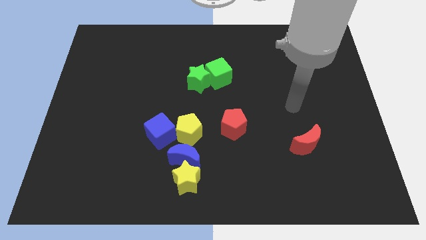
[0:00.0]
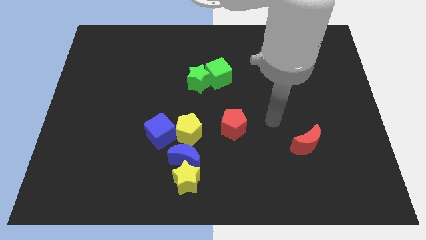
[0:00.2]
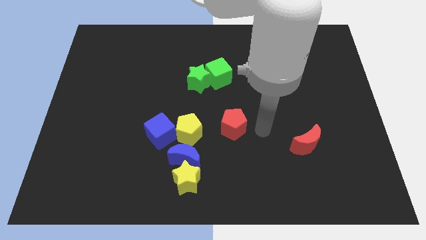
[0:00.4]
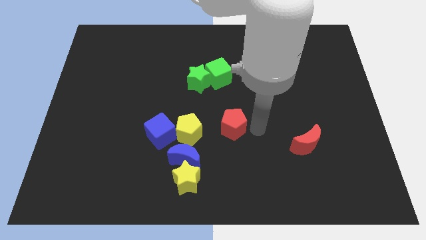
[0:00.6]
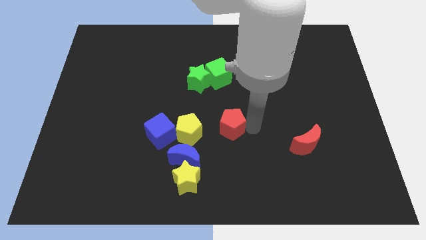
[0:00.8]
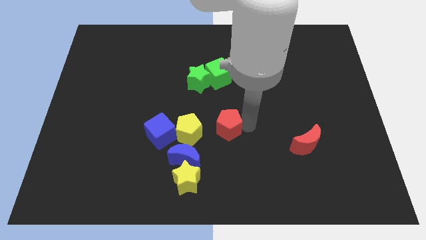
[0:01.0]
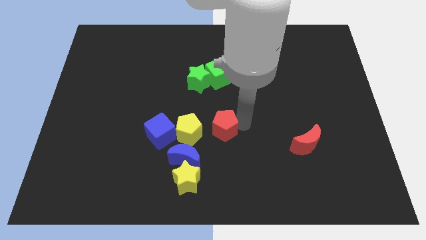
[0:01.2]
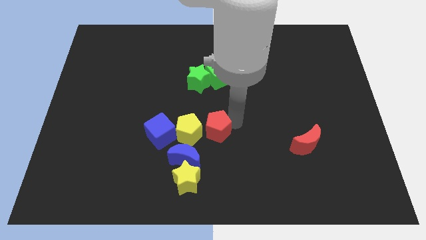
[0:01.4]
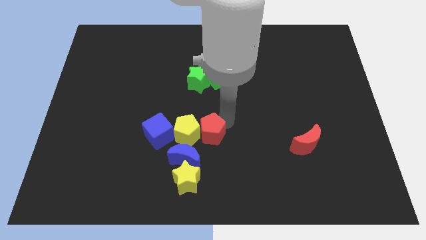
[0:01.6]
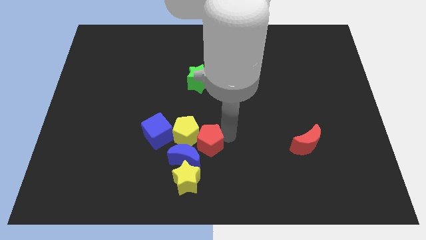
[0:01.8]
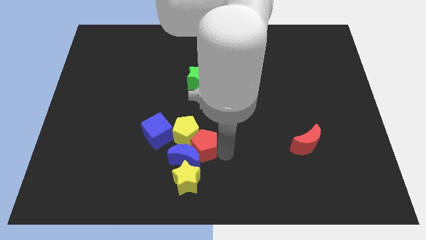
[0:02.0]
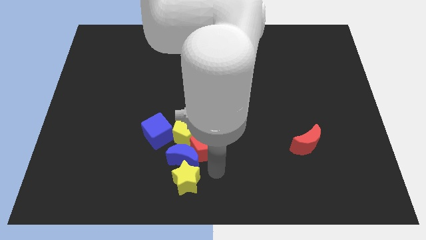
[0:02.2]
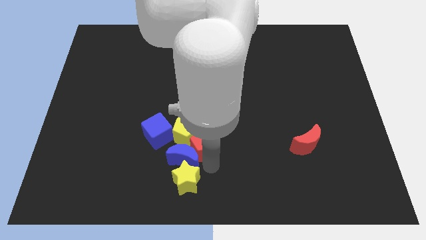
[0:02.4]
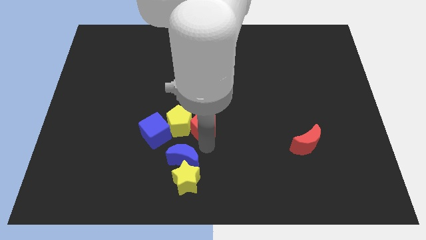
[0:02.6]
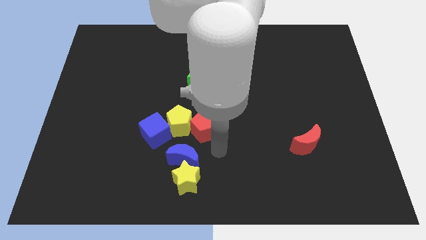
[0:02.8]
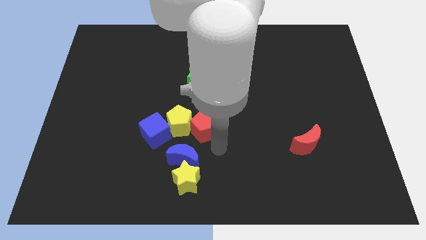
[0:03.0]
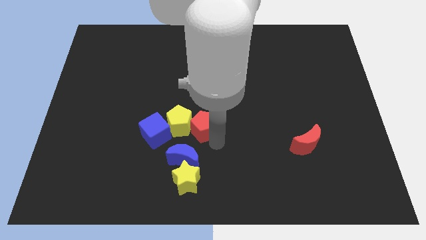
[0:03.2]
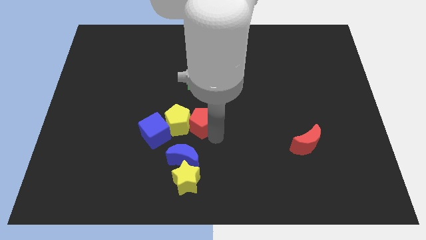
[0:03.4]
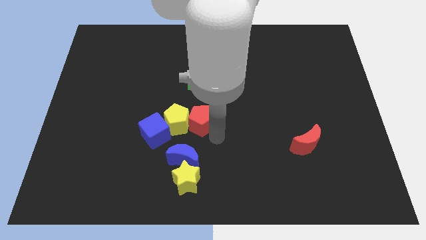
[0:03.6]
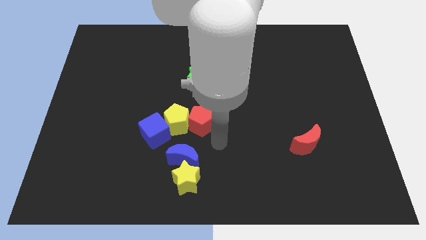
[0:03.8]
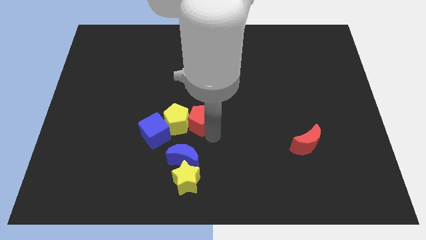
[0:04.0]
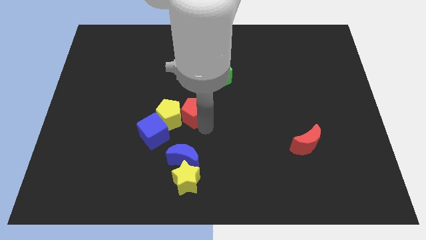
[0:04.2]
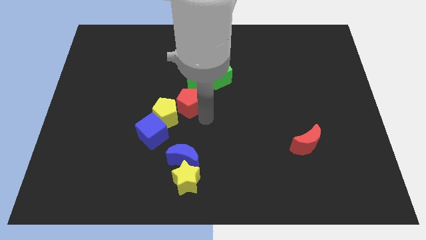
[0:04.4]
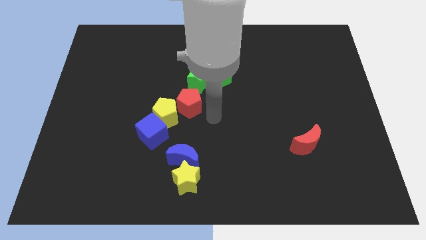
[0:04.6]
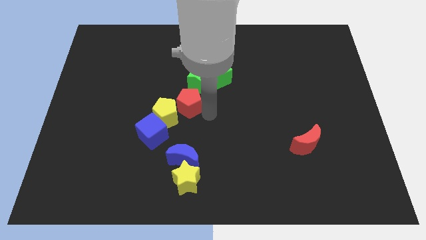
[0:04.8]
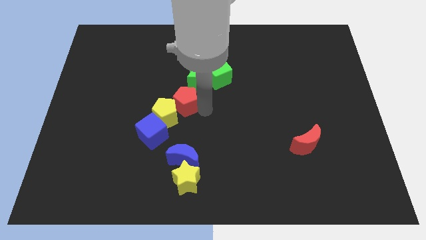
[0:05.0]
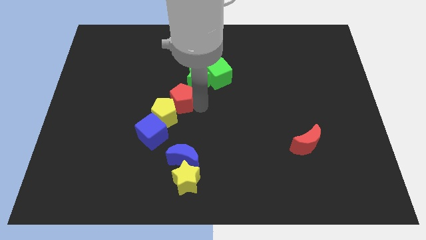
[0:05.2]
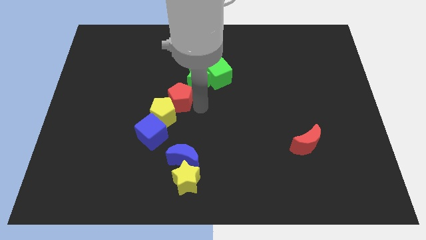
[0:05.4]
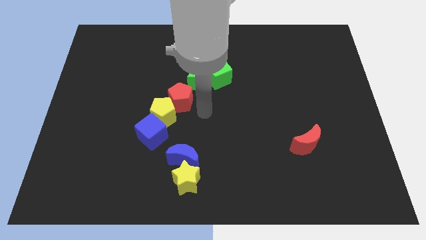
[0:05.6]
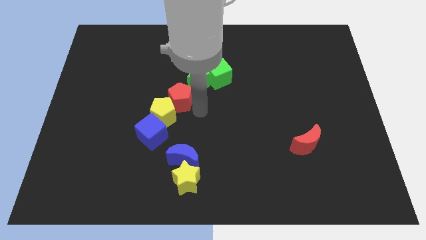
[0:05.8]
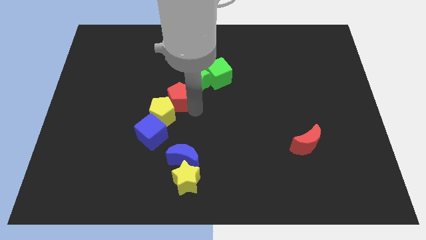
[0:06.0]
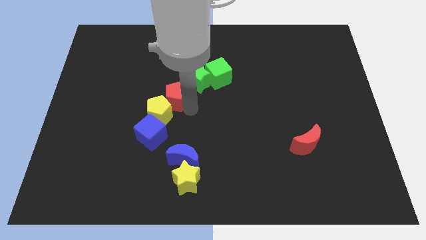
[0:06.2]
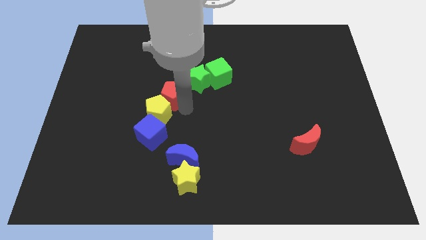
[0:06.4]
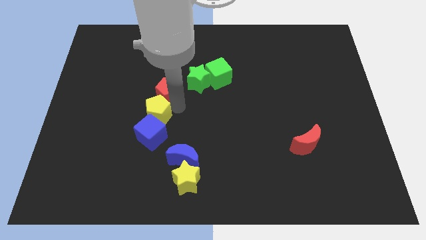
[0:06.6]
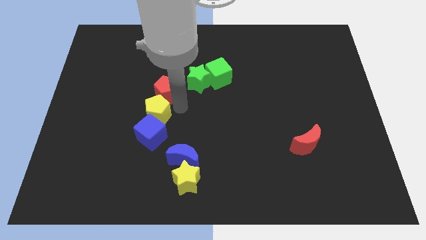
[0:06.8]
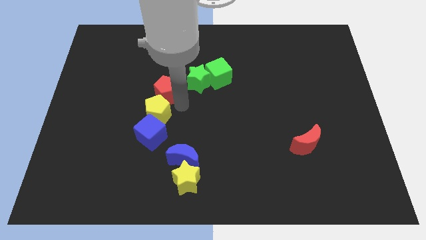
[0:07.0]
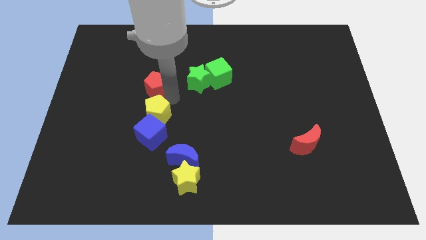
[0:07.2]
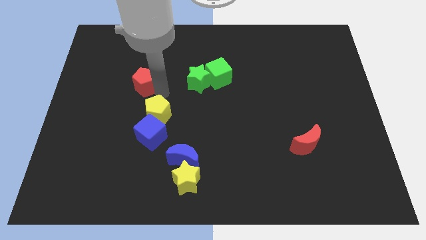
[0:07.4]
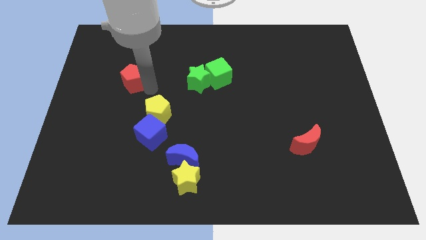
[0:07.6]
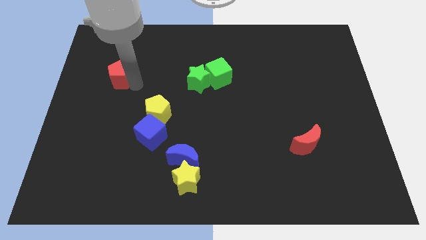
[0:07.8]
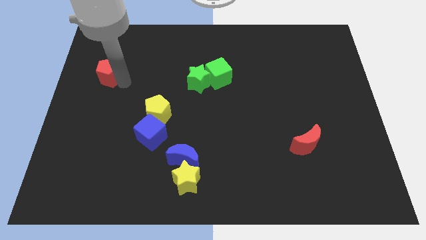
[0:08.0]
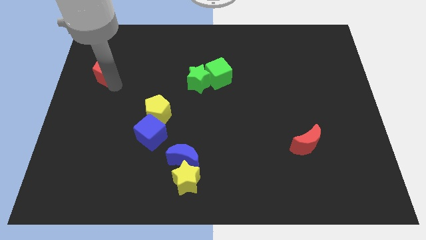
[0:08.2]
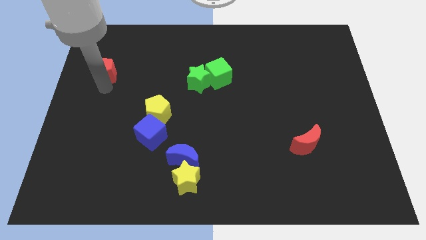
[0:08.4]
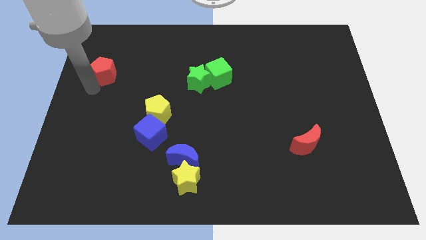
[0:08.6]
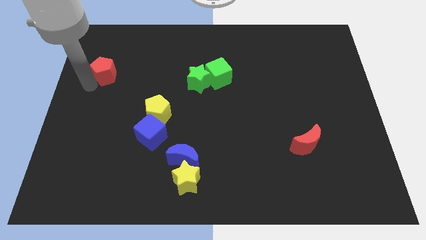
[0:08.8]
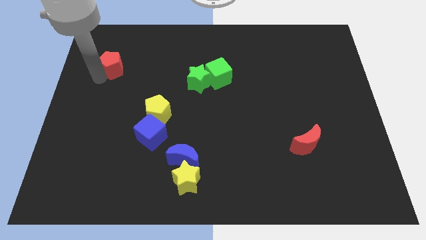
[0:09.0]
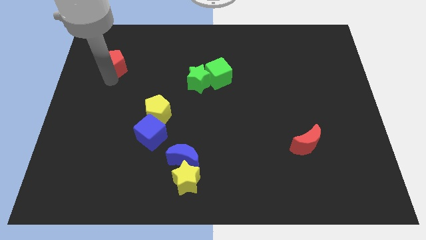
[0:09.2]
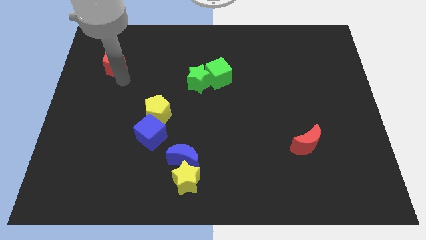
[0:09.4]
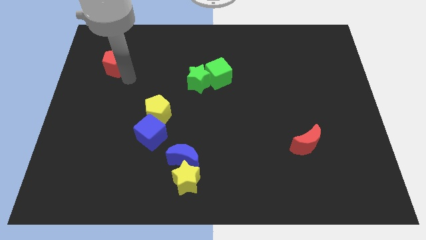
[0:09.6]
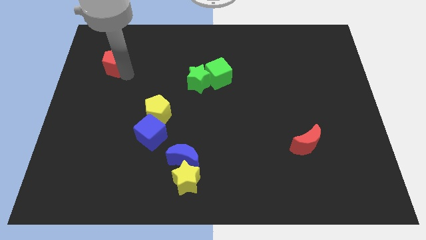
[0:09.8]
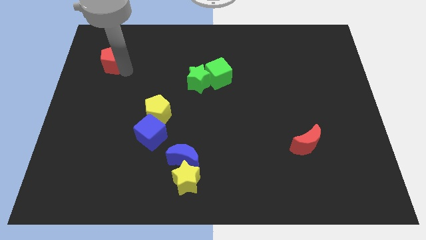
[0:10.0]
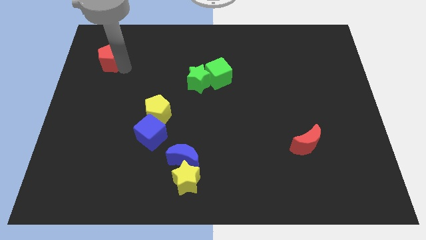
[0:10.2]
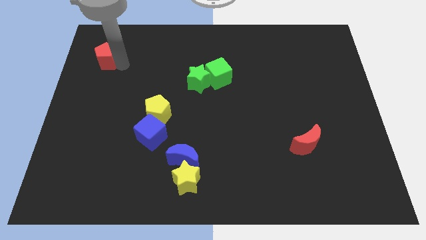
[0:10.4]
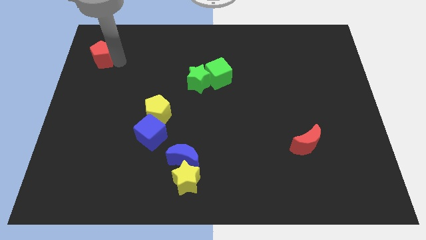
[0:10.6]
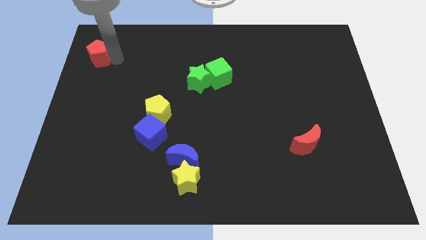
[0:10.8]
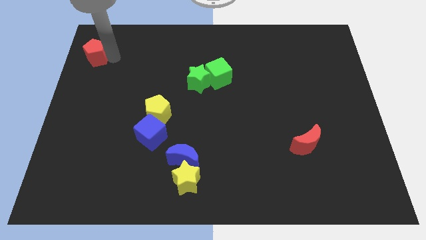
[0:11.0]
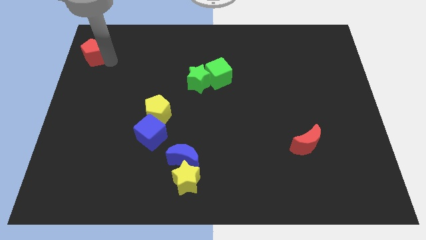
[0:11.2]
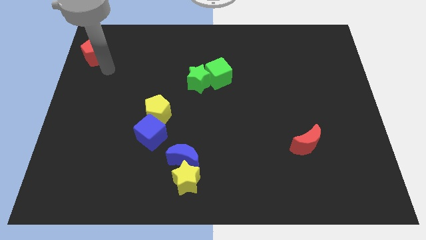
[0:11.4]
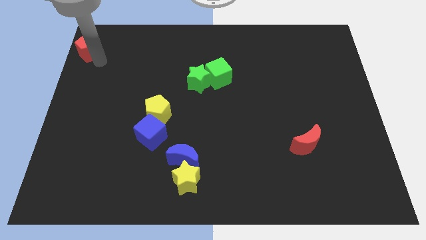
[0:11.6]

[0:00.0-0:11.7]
move the red pentagon to the upper left corner
